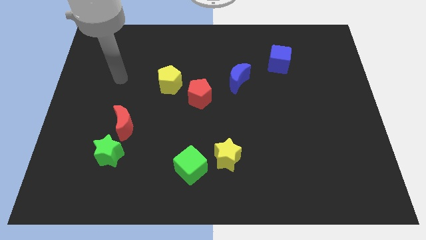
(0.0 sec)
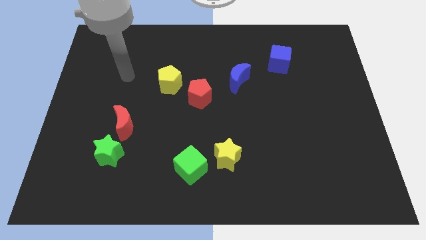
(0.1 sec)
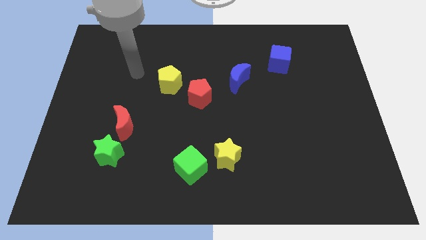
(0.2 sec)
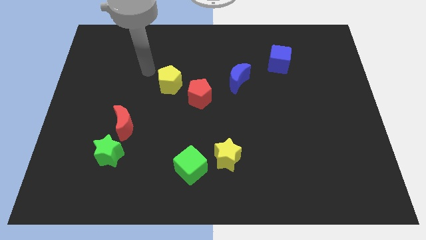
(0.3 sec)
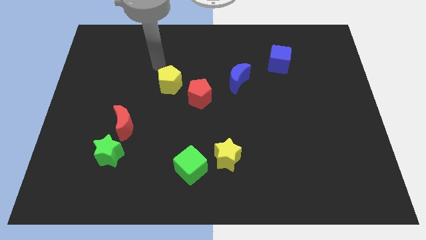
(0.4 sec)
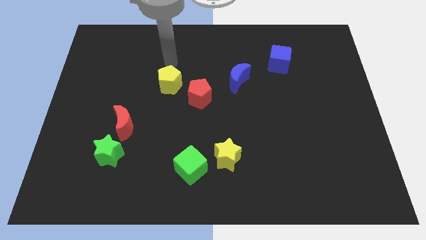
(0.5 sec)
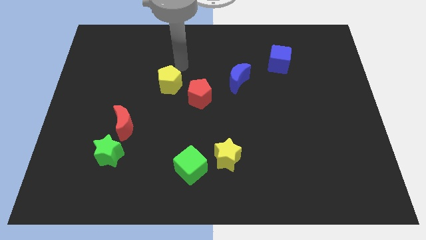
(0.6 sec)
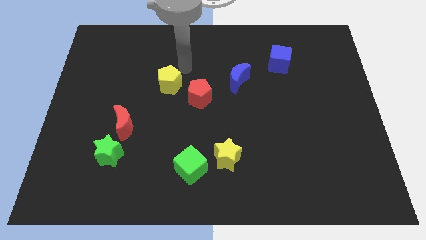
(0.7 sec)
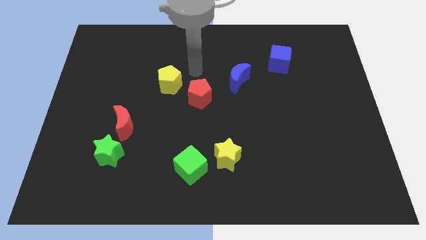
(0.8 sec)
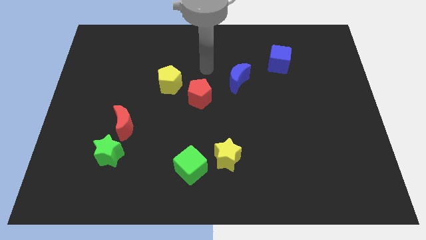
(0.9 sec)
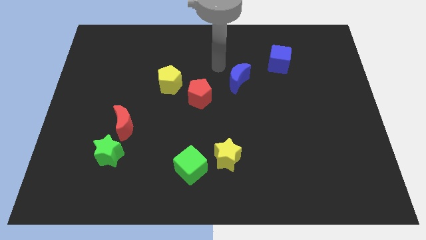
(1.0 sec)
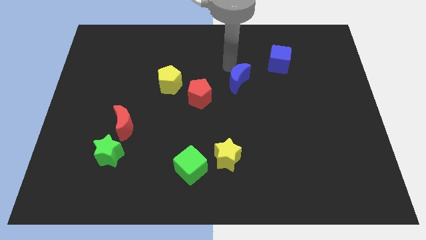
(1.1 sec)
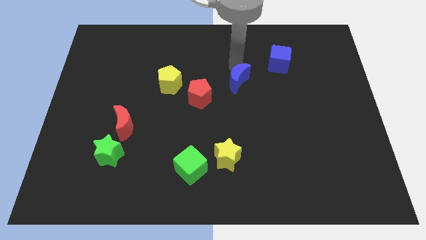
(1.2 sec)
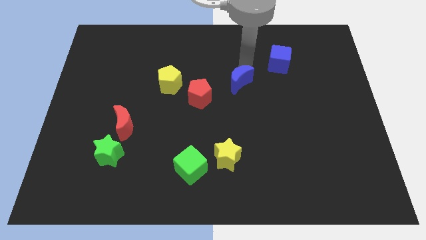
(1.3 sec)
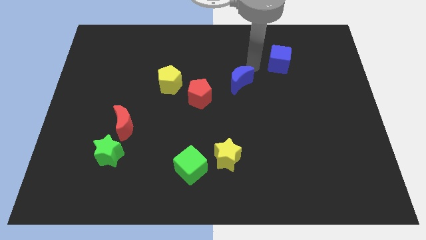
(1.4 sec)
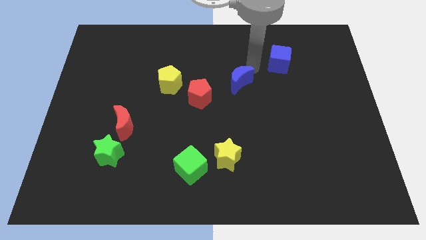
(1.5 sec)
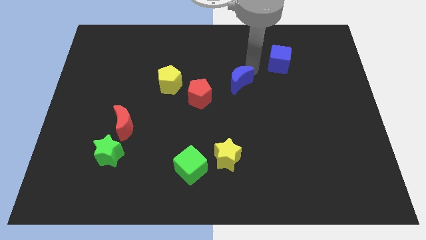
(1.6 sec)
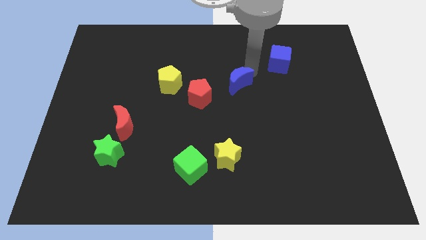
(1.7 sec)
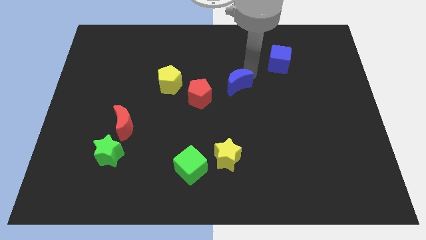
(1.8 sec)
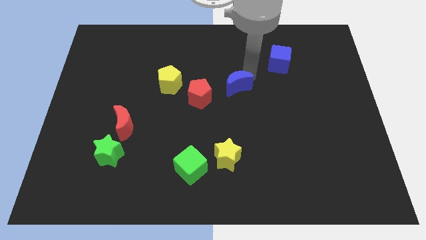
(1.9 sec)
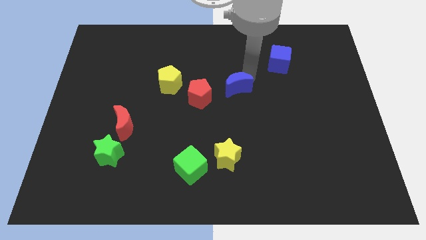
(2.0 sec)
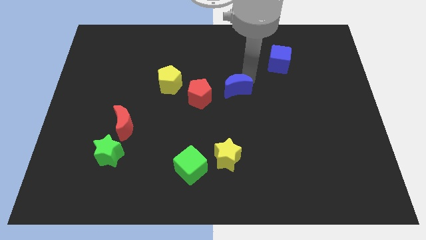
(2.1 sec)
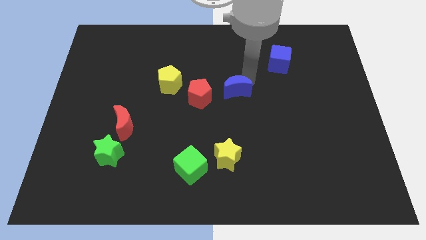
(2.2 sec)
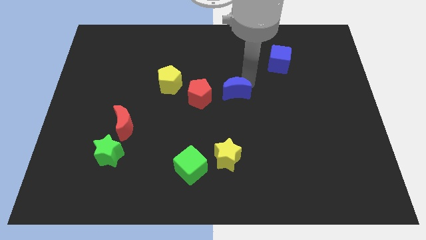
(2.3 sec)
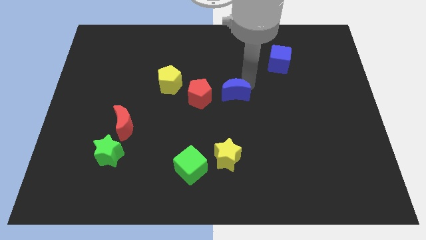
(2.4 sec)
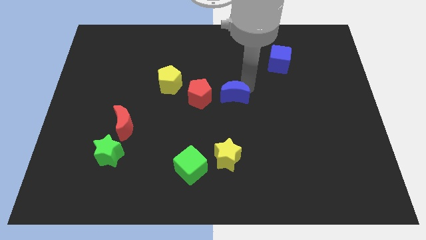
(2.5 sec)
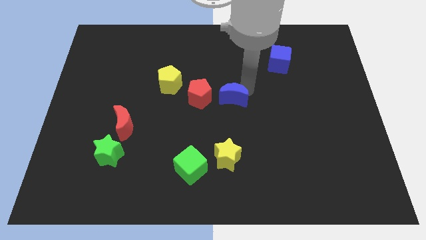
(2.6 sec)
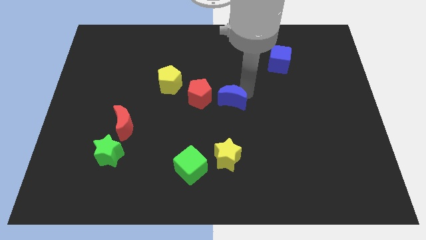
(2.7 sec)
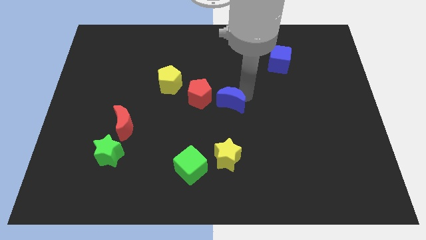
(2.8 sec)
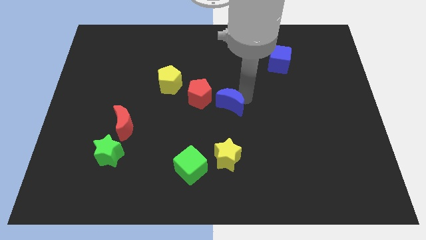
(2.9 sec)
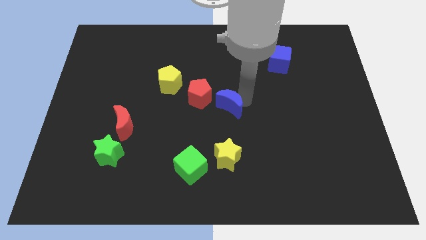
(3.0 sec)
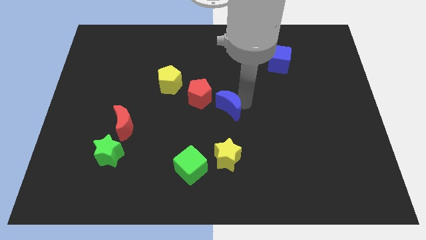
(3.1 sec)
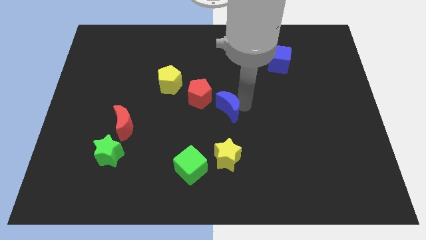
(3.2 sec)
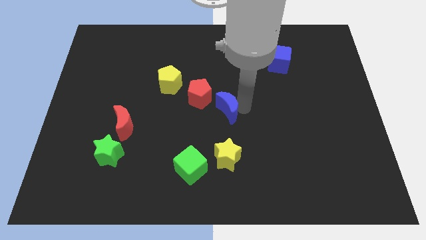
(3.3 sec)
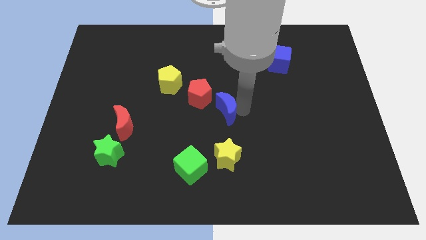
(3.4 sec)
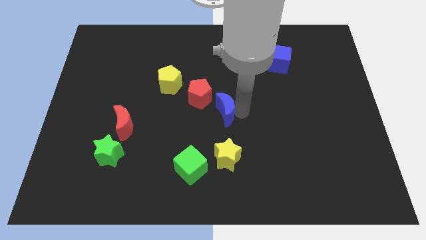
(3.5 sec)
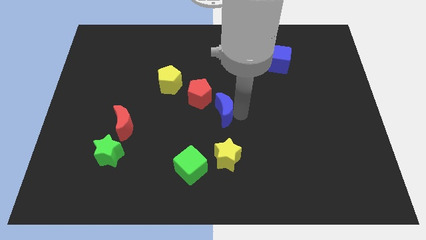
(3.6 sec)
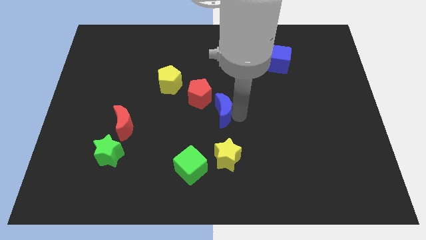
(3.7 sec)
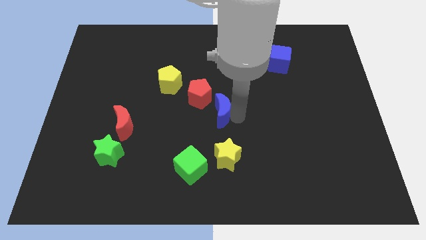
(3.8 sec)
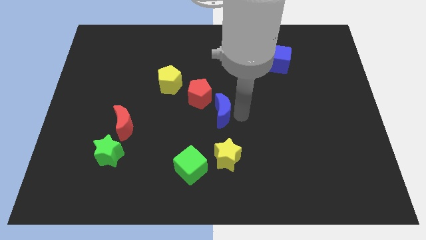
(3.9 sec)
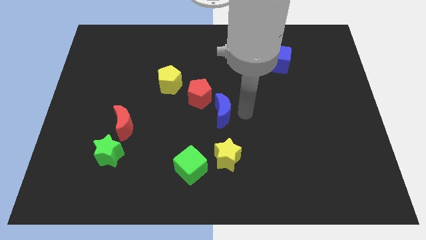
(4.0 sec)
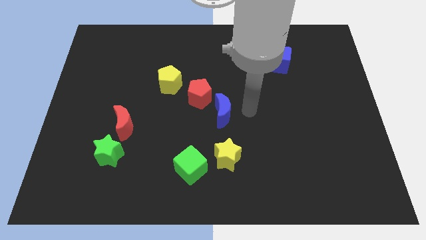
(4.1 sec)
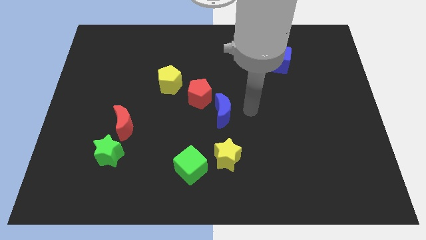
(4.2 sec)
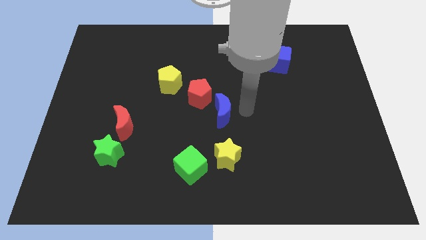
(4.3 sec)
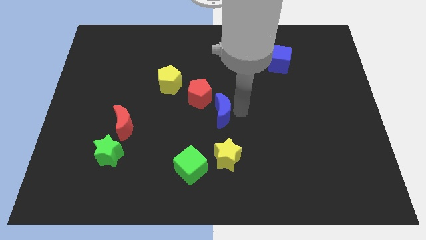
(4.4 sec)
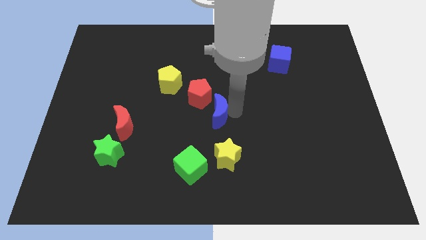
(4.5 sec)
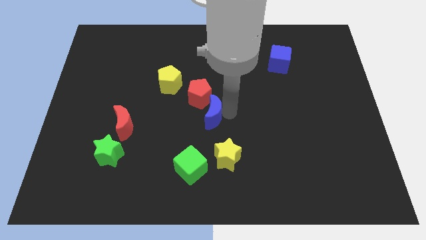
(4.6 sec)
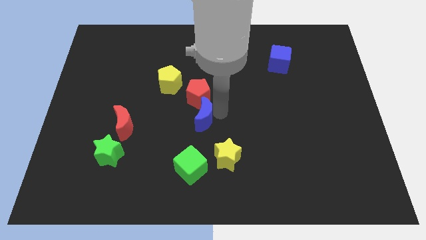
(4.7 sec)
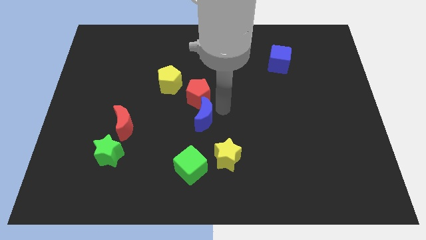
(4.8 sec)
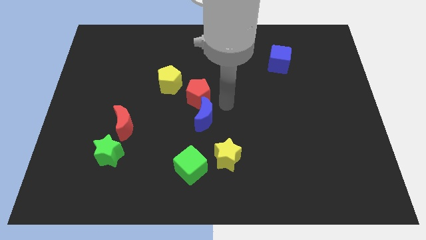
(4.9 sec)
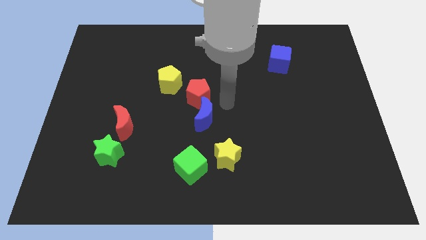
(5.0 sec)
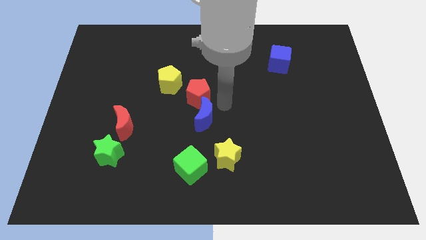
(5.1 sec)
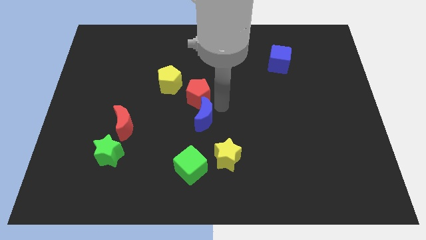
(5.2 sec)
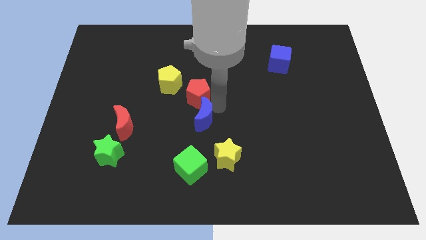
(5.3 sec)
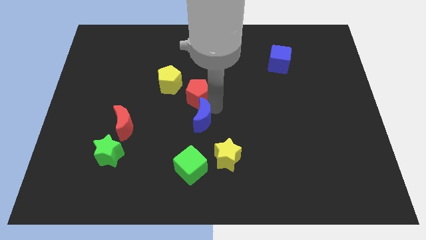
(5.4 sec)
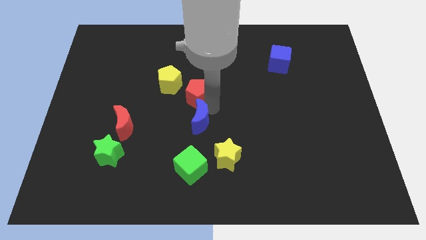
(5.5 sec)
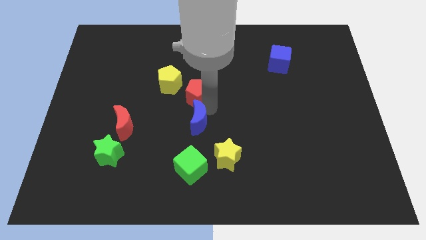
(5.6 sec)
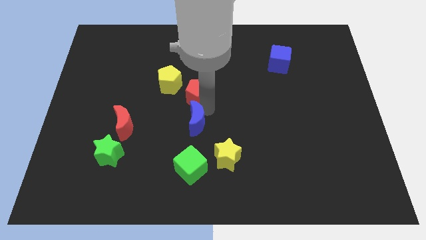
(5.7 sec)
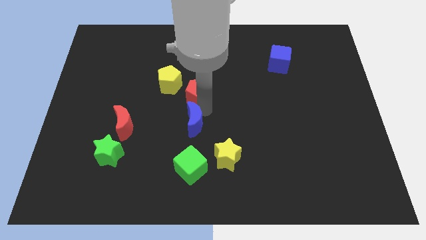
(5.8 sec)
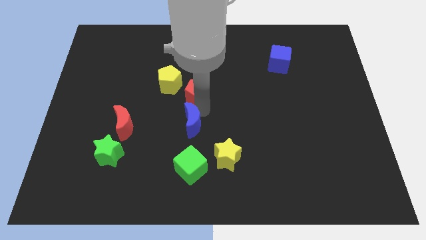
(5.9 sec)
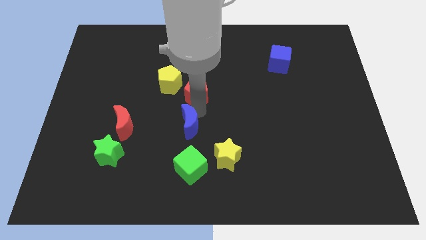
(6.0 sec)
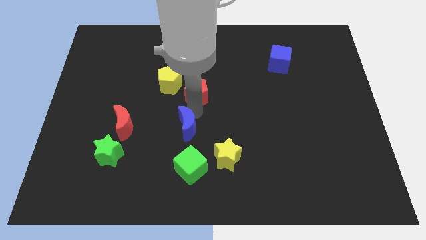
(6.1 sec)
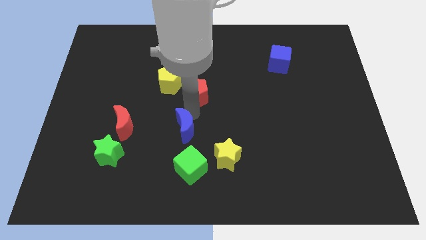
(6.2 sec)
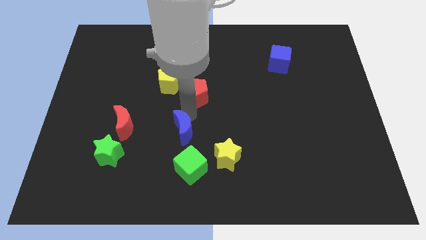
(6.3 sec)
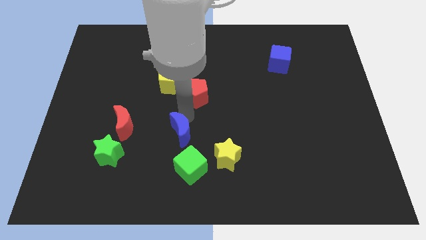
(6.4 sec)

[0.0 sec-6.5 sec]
push the blue moon diagonally down and left

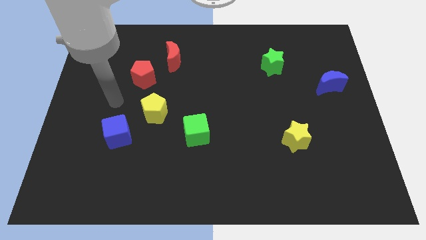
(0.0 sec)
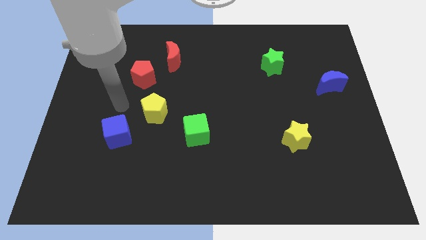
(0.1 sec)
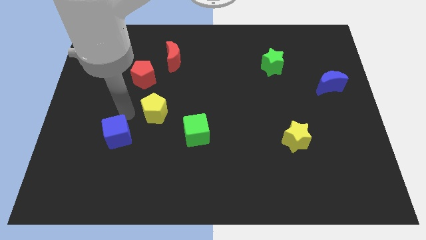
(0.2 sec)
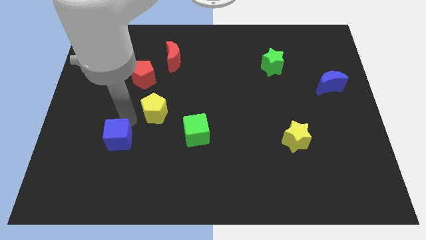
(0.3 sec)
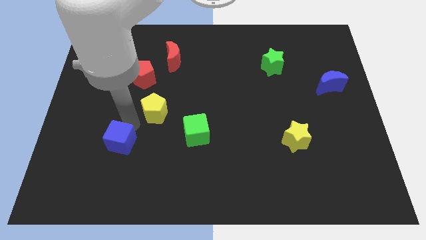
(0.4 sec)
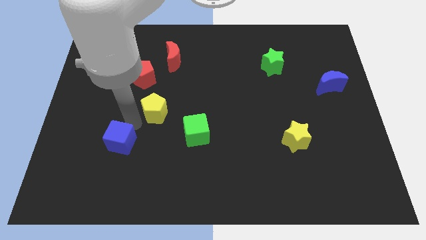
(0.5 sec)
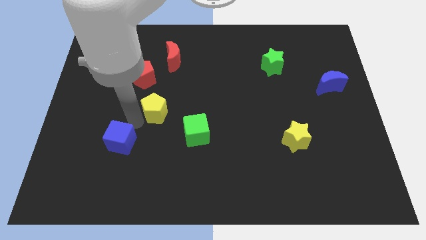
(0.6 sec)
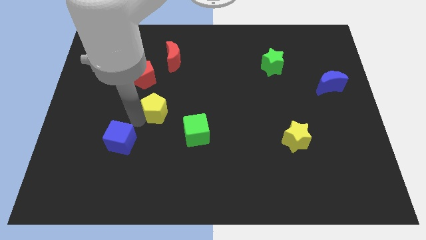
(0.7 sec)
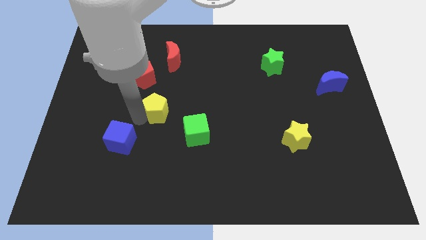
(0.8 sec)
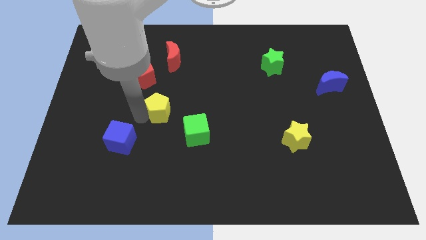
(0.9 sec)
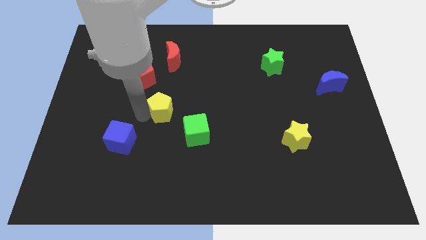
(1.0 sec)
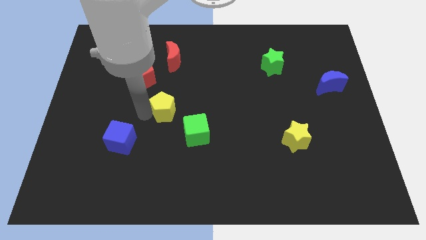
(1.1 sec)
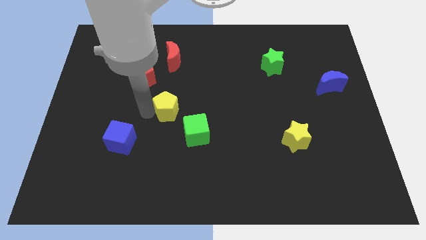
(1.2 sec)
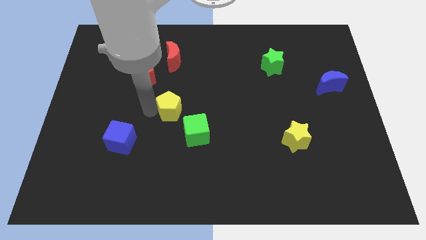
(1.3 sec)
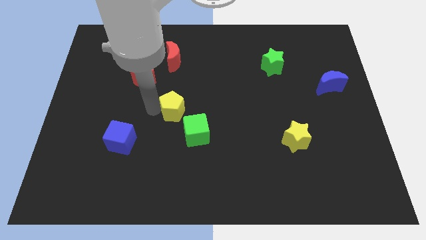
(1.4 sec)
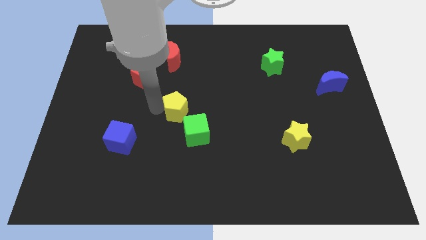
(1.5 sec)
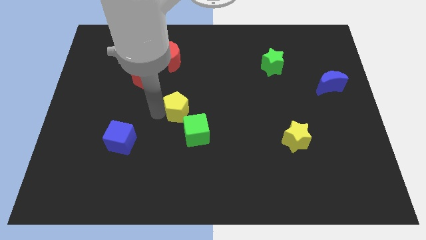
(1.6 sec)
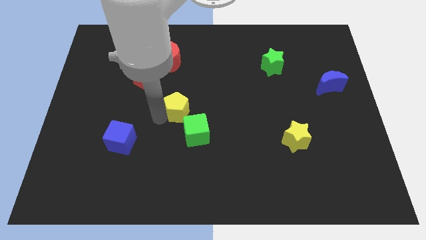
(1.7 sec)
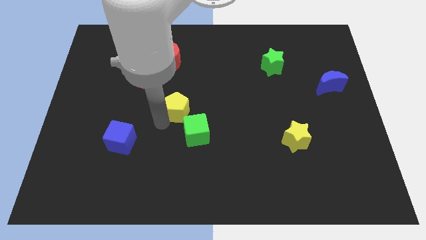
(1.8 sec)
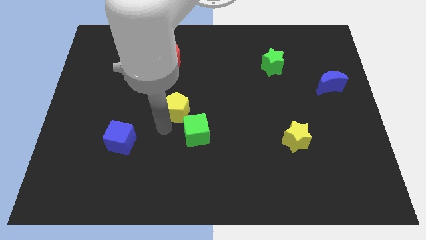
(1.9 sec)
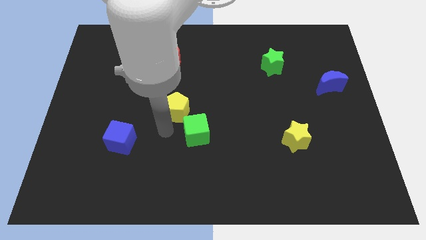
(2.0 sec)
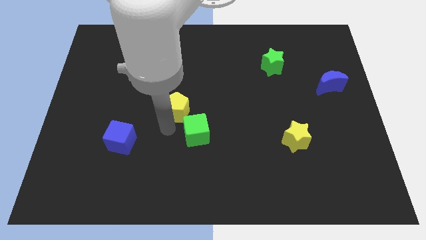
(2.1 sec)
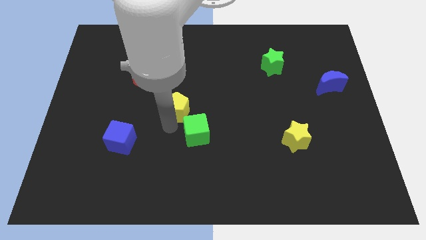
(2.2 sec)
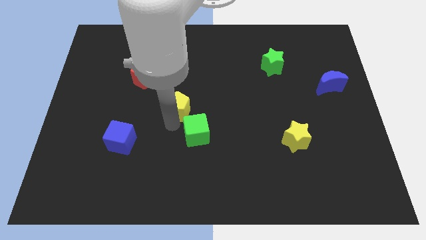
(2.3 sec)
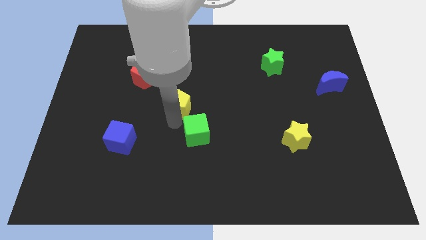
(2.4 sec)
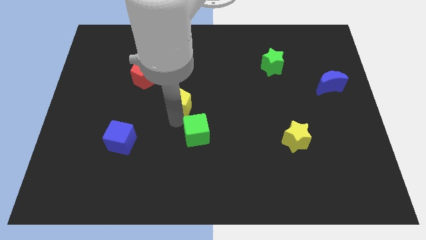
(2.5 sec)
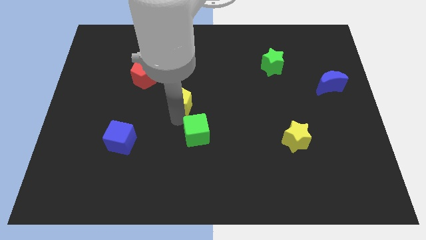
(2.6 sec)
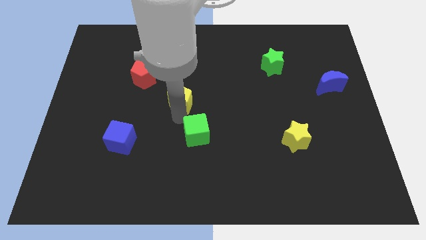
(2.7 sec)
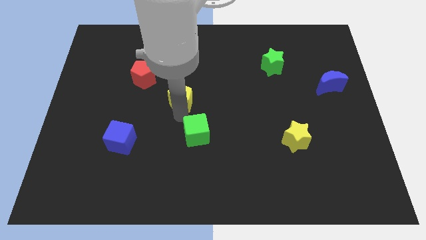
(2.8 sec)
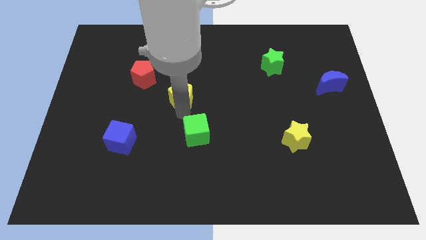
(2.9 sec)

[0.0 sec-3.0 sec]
push the yellow pentagon diagonally up and to the right a little bit
